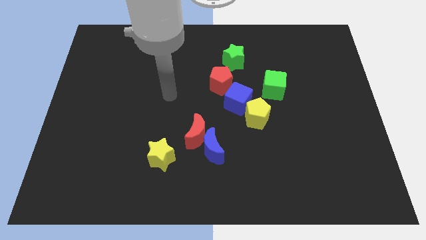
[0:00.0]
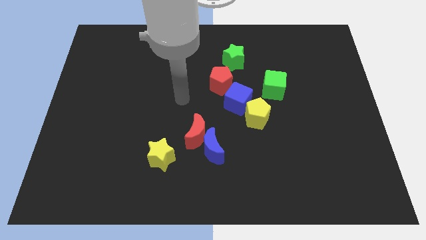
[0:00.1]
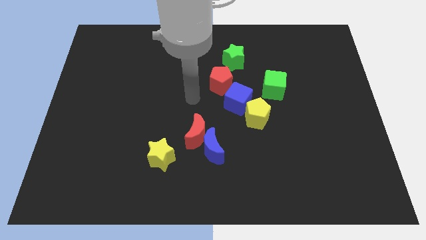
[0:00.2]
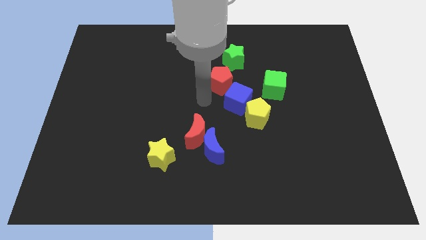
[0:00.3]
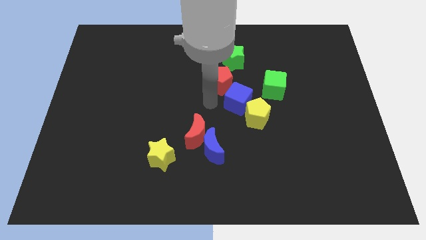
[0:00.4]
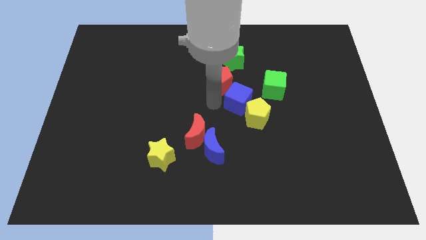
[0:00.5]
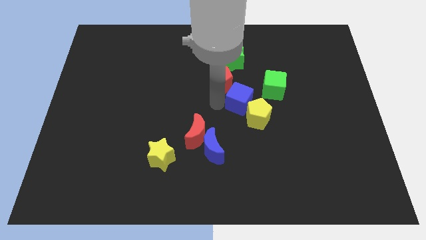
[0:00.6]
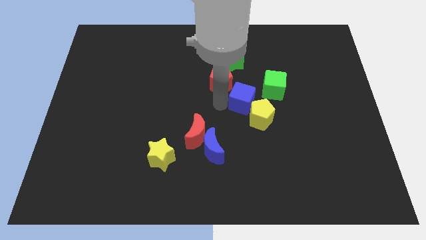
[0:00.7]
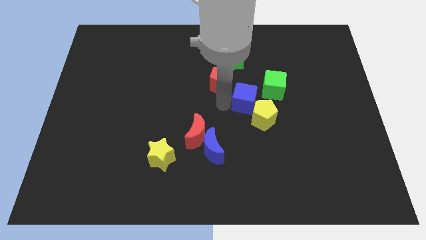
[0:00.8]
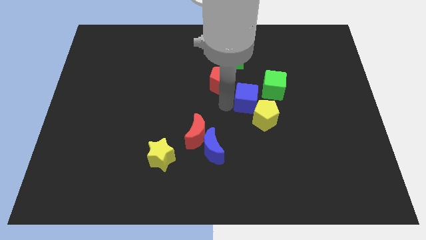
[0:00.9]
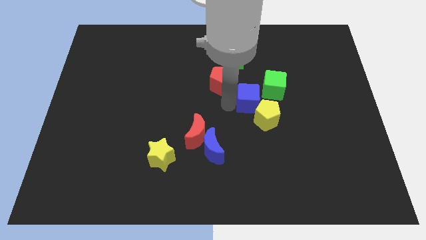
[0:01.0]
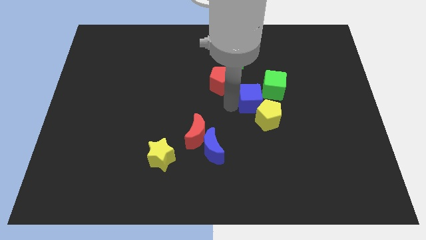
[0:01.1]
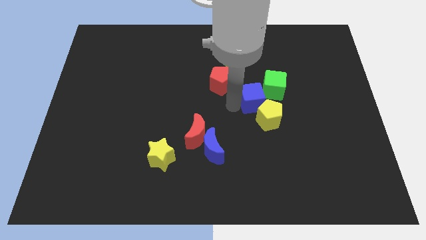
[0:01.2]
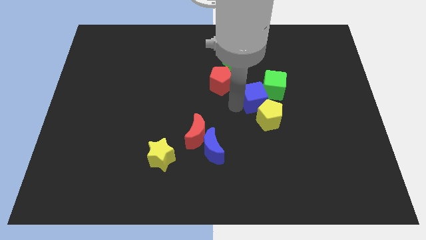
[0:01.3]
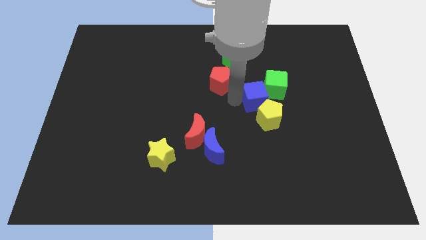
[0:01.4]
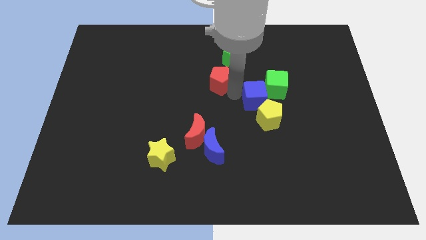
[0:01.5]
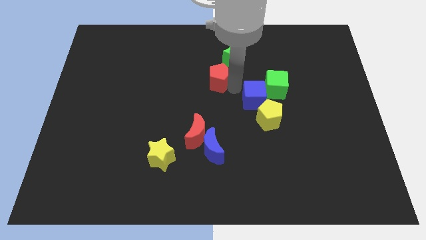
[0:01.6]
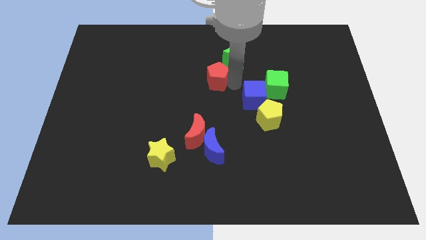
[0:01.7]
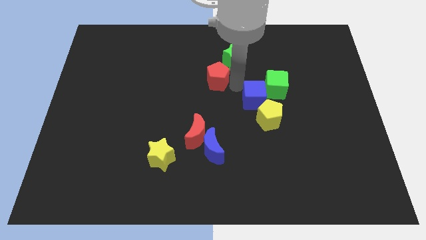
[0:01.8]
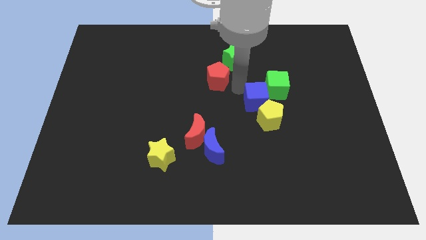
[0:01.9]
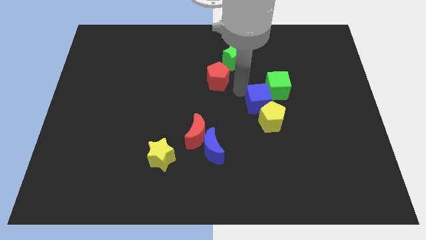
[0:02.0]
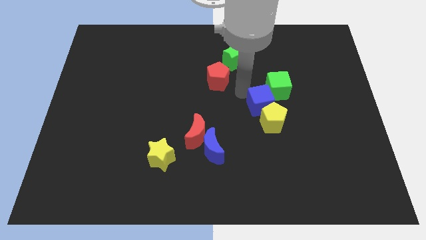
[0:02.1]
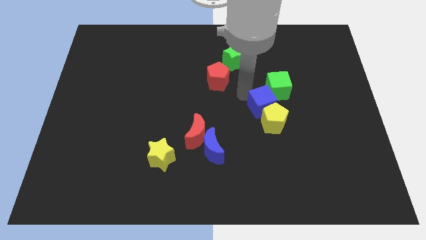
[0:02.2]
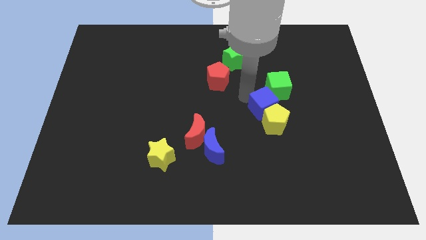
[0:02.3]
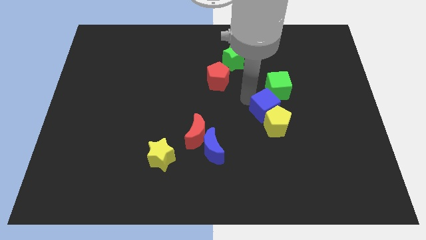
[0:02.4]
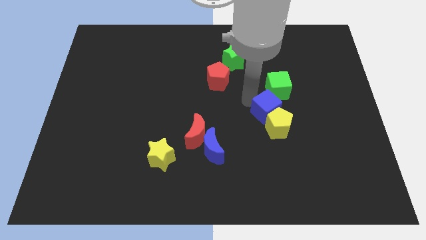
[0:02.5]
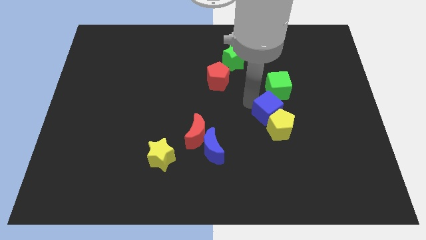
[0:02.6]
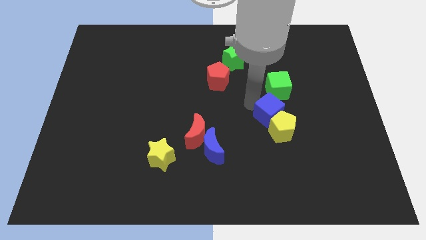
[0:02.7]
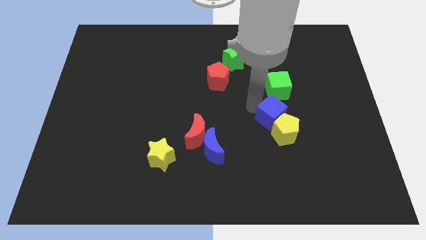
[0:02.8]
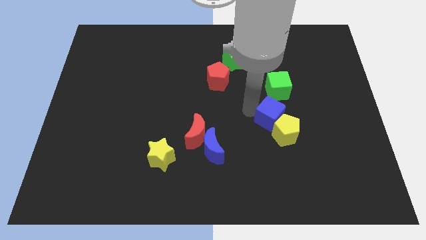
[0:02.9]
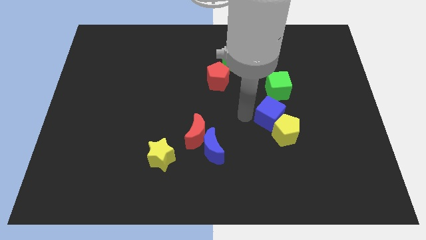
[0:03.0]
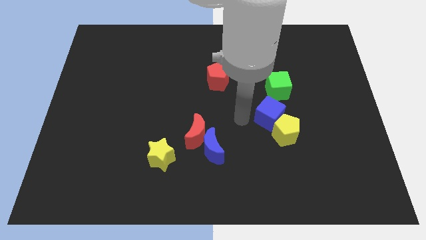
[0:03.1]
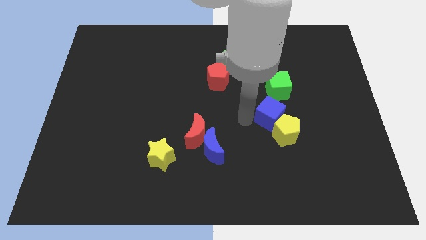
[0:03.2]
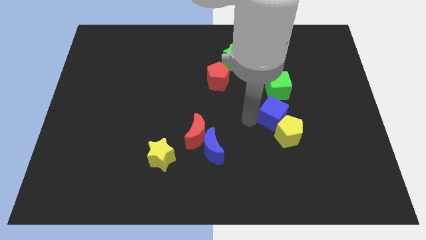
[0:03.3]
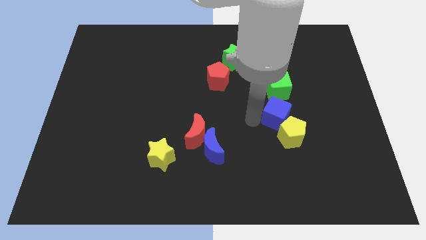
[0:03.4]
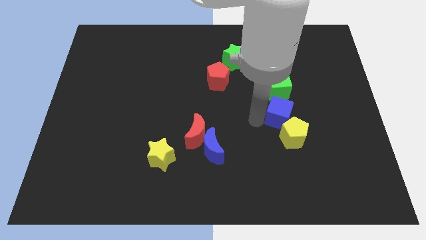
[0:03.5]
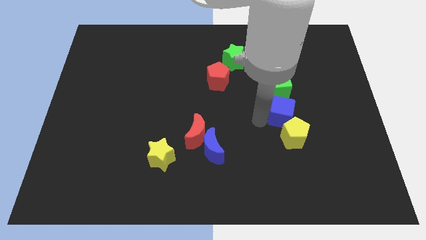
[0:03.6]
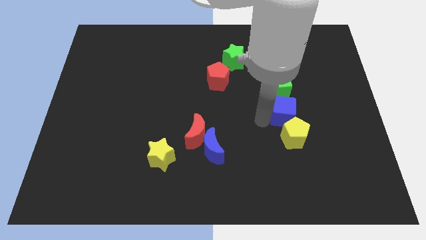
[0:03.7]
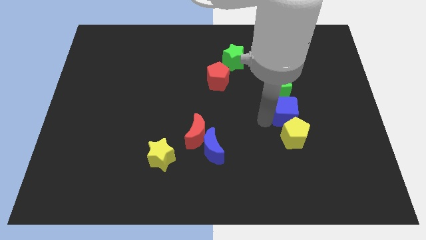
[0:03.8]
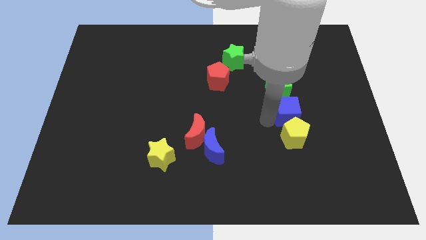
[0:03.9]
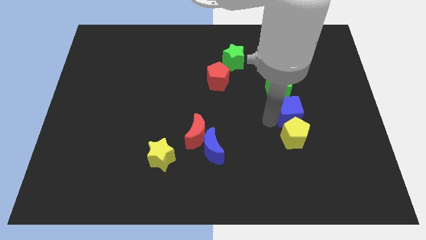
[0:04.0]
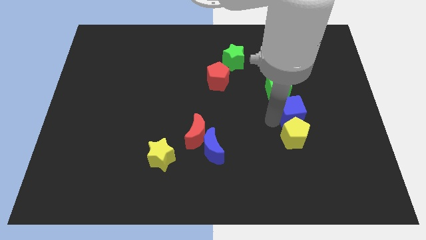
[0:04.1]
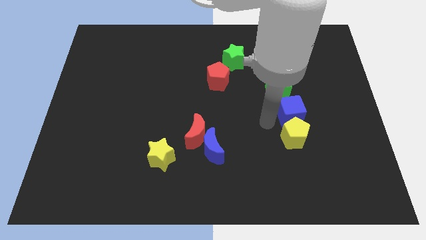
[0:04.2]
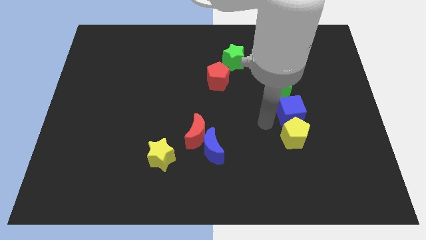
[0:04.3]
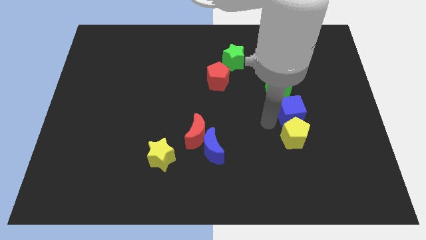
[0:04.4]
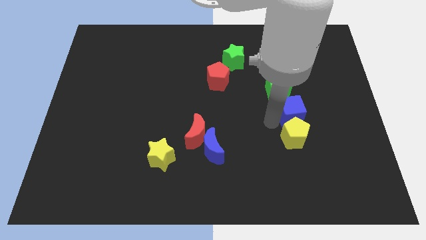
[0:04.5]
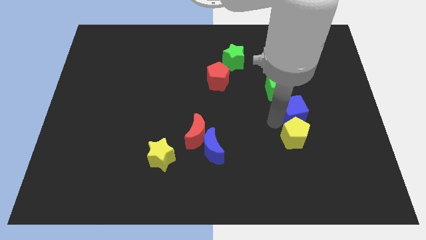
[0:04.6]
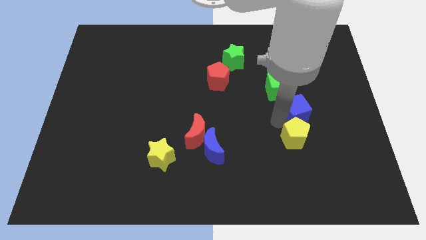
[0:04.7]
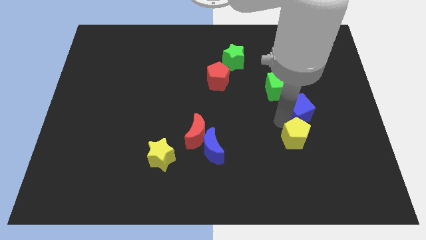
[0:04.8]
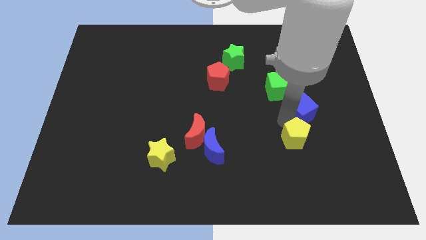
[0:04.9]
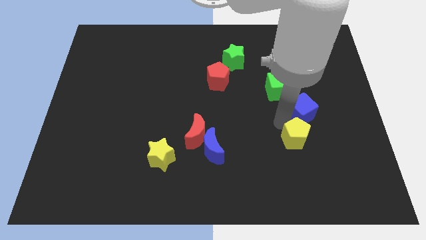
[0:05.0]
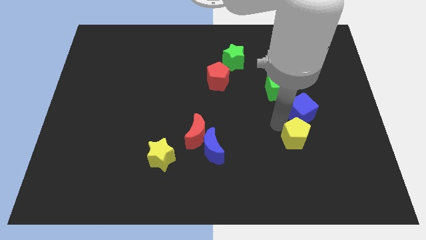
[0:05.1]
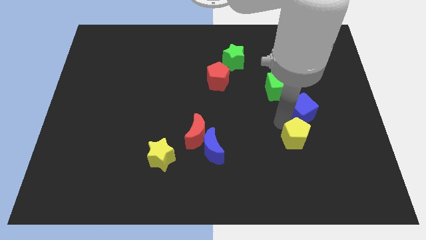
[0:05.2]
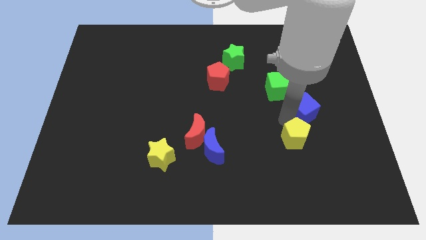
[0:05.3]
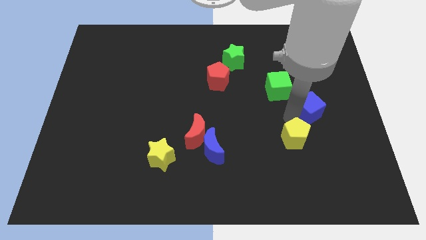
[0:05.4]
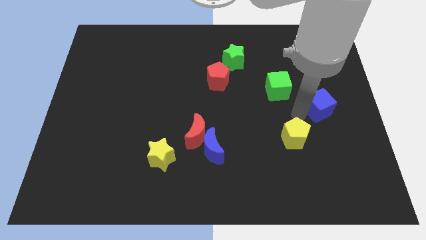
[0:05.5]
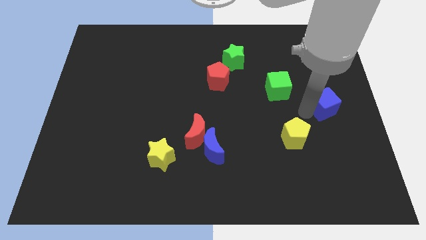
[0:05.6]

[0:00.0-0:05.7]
move the blue cube to the right side of the board
